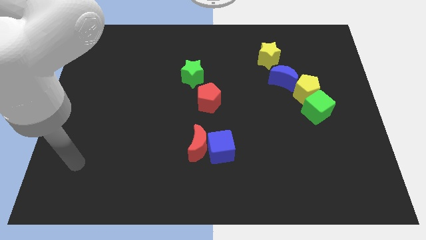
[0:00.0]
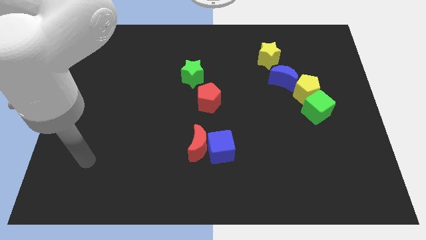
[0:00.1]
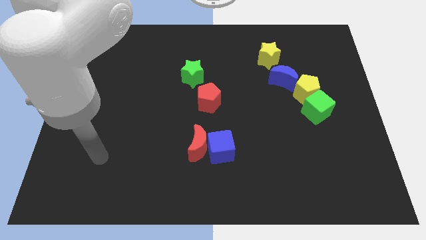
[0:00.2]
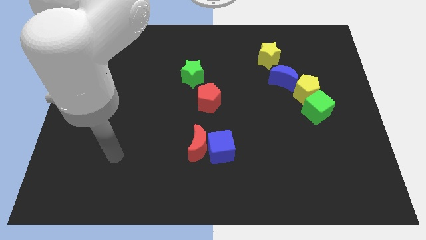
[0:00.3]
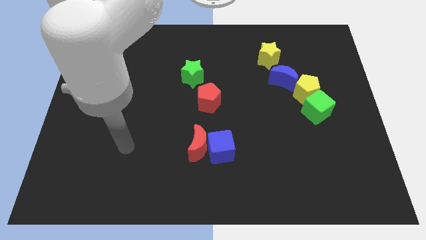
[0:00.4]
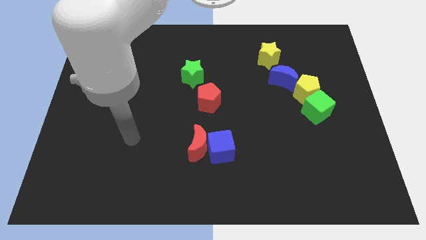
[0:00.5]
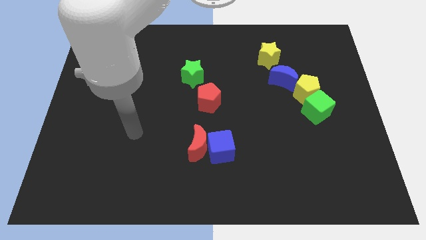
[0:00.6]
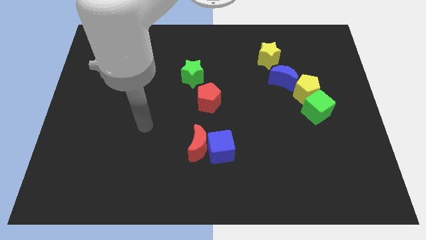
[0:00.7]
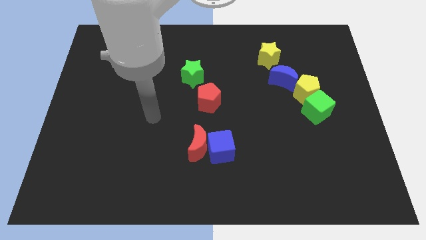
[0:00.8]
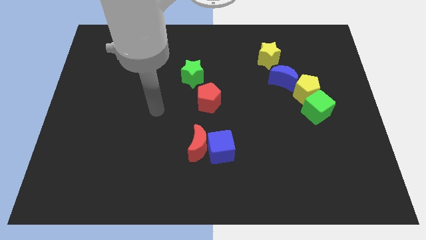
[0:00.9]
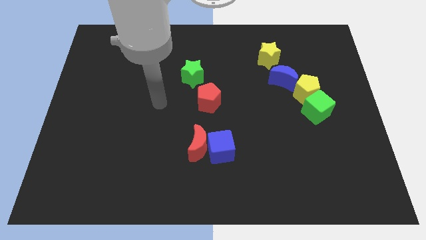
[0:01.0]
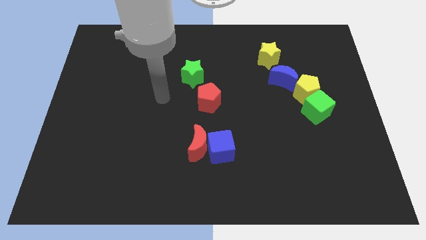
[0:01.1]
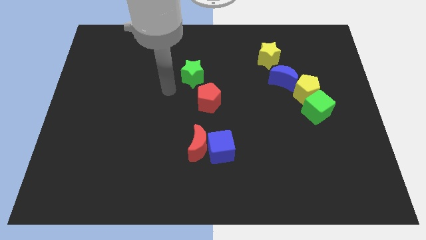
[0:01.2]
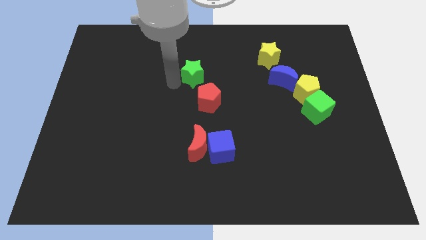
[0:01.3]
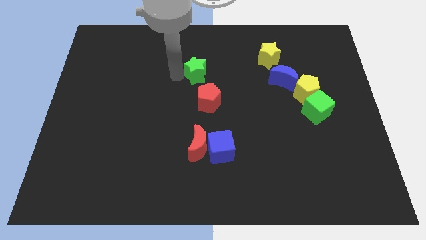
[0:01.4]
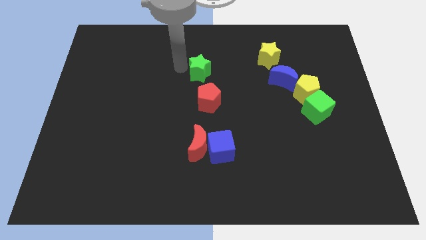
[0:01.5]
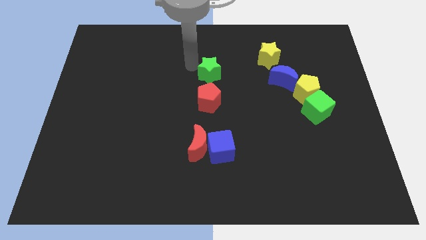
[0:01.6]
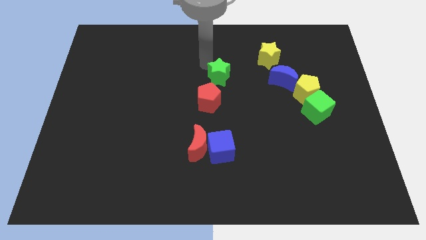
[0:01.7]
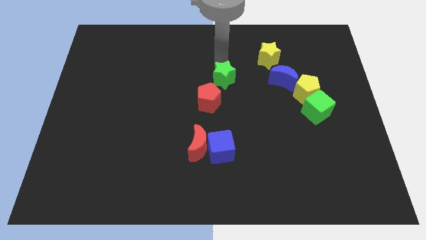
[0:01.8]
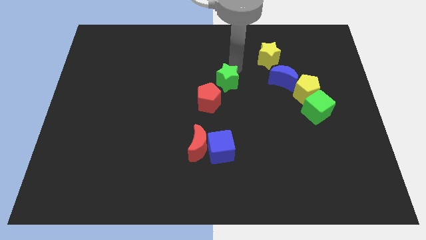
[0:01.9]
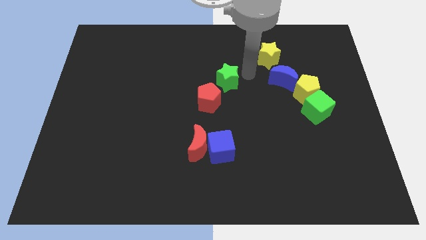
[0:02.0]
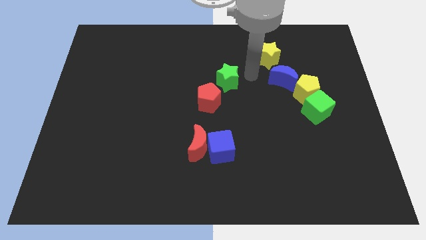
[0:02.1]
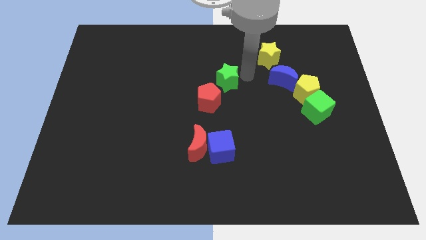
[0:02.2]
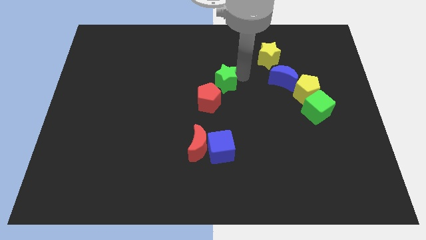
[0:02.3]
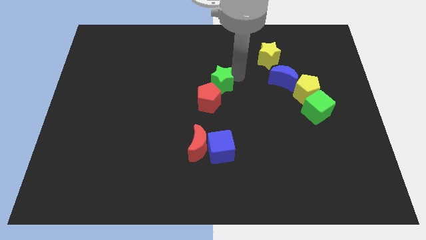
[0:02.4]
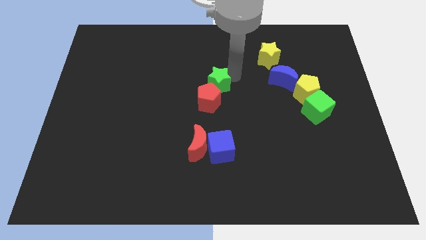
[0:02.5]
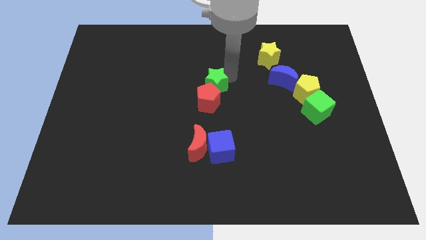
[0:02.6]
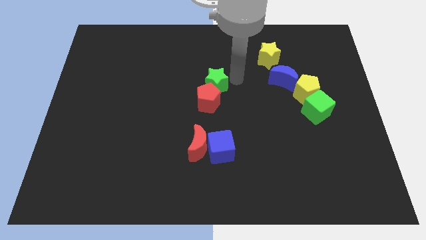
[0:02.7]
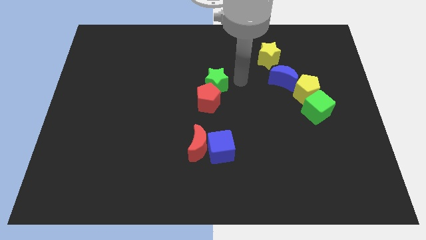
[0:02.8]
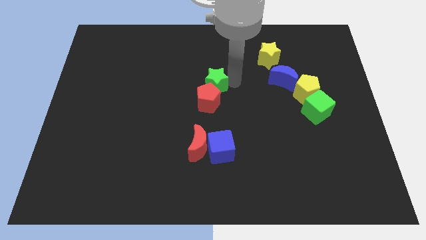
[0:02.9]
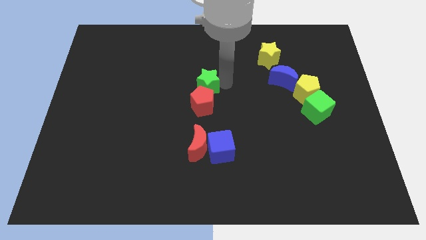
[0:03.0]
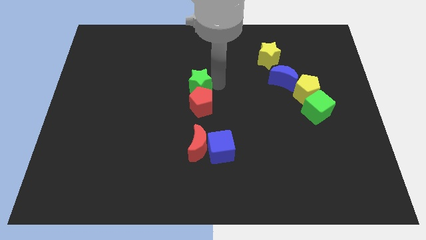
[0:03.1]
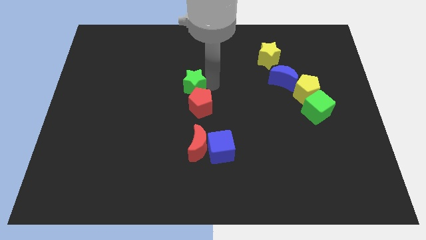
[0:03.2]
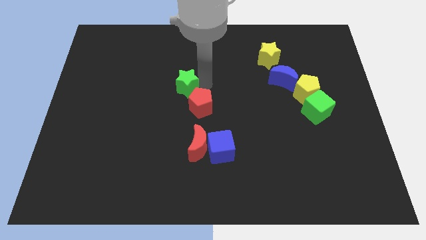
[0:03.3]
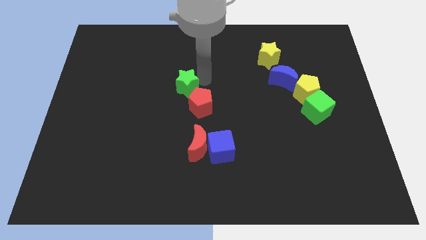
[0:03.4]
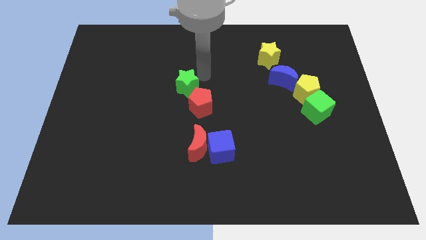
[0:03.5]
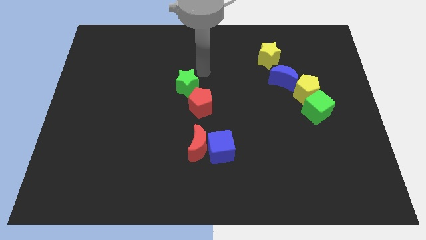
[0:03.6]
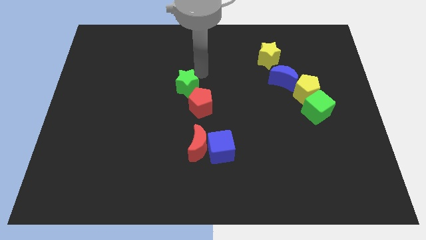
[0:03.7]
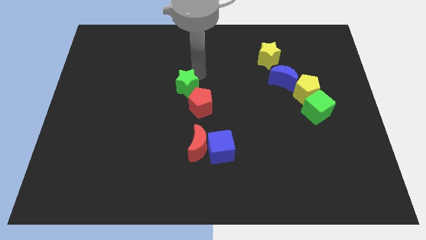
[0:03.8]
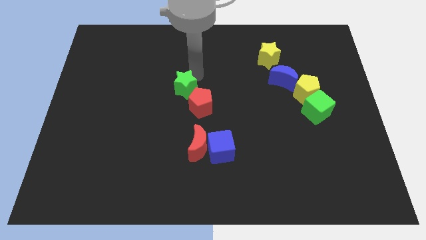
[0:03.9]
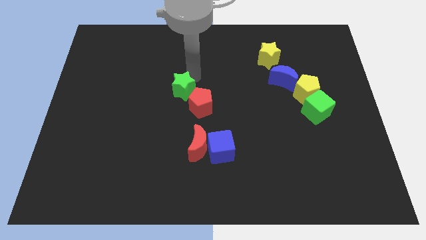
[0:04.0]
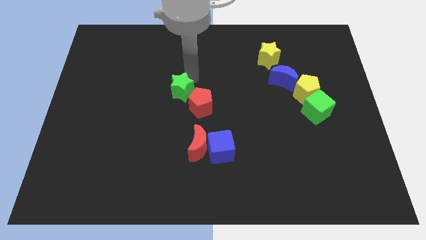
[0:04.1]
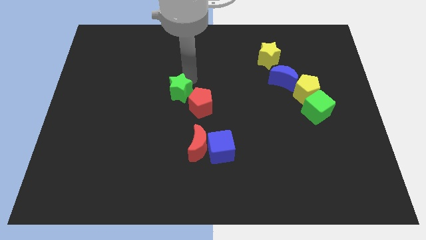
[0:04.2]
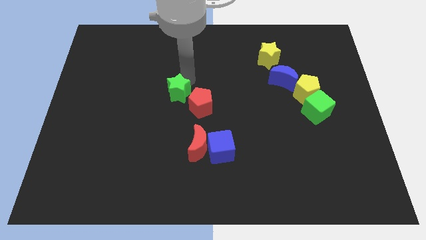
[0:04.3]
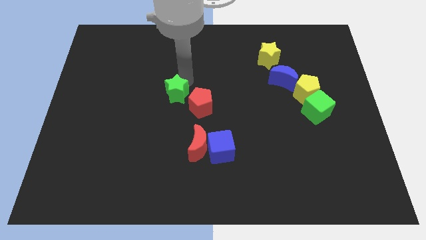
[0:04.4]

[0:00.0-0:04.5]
slightly push the green star down and then to the left

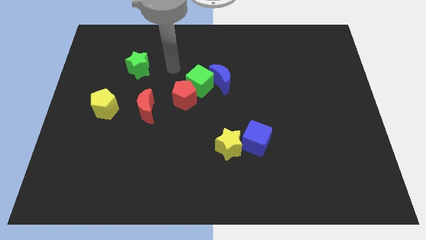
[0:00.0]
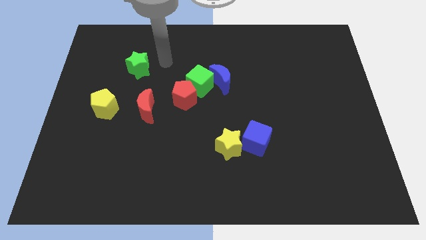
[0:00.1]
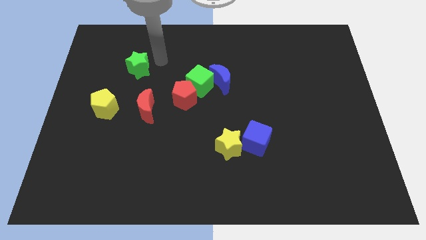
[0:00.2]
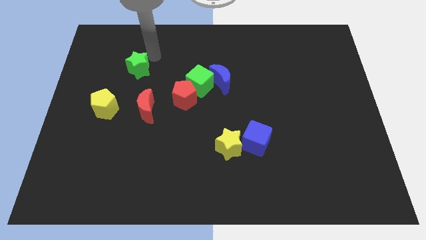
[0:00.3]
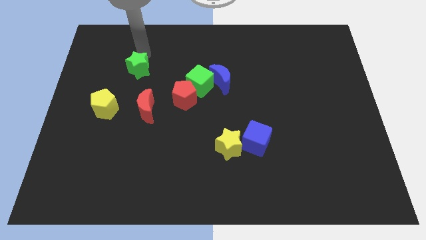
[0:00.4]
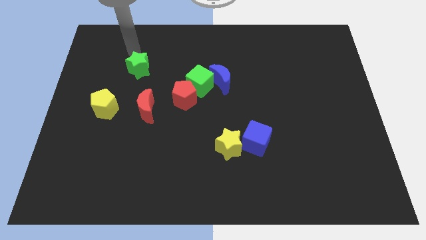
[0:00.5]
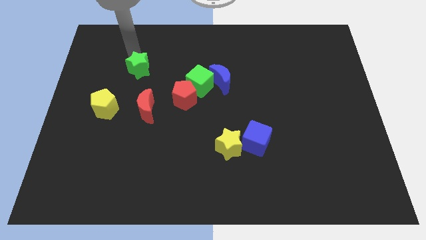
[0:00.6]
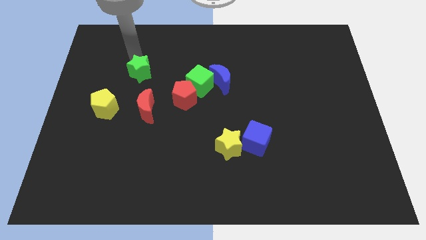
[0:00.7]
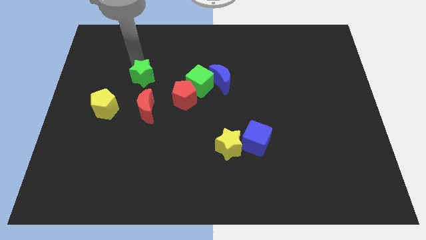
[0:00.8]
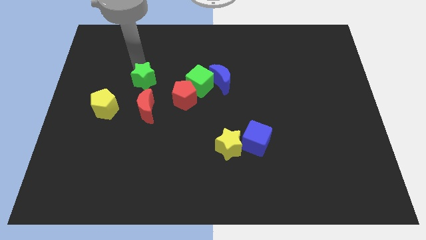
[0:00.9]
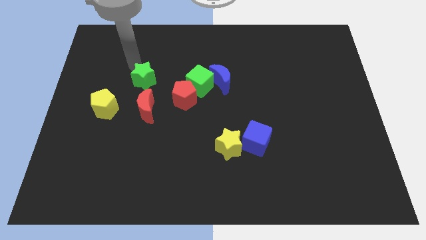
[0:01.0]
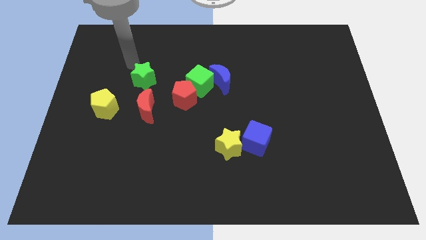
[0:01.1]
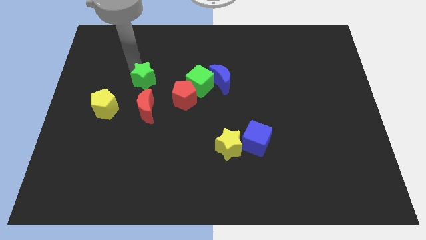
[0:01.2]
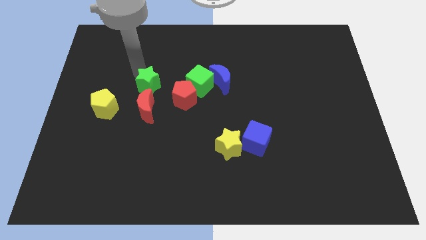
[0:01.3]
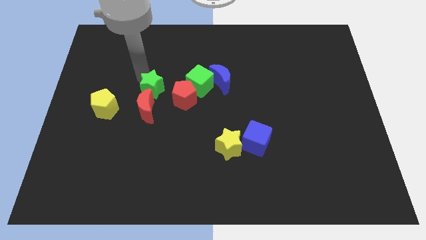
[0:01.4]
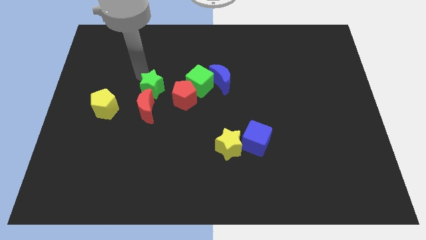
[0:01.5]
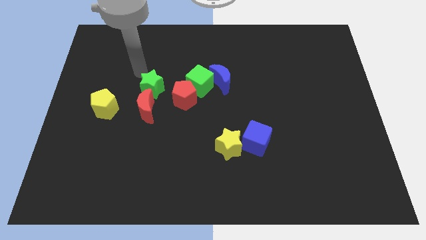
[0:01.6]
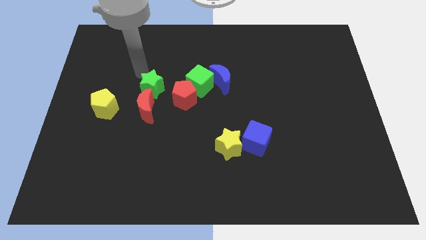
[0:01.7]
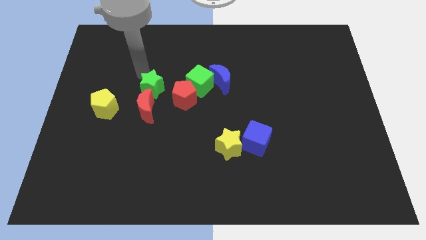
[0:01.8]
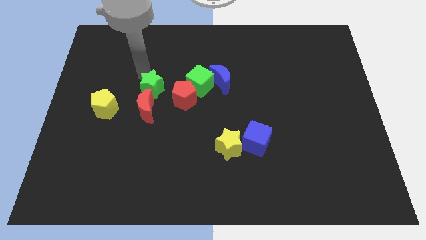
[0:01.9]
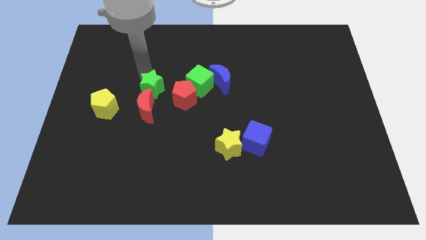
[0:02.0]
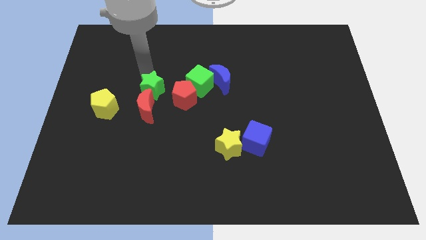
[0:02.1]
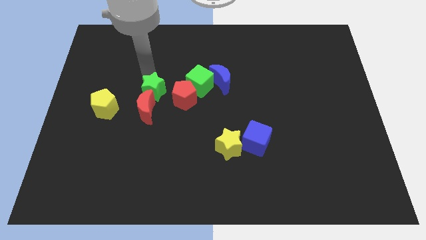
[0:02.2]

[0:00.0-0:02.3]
slide the green star down a little bit

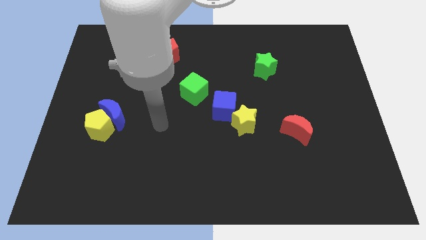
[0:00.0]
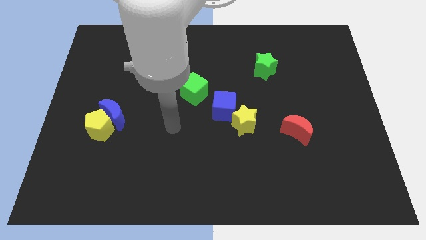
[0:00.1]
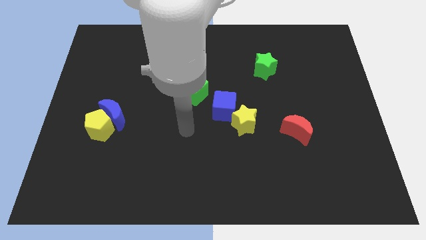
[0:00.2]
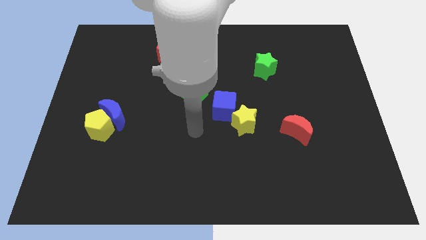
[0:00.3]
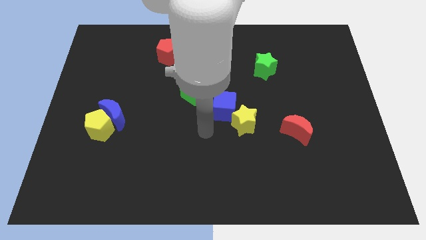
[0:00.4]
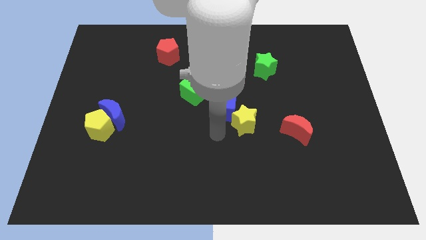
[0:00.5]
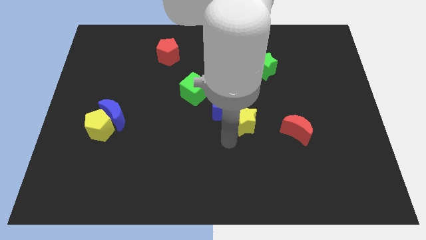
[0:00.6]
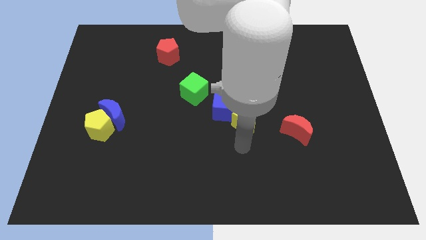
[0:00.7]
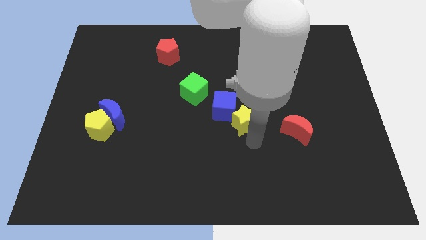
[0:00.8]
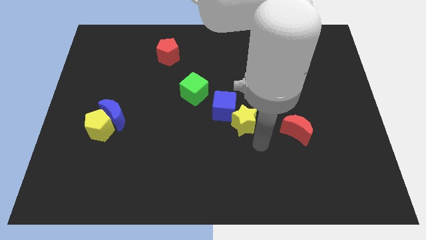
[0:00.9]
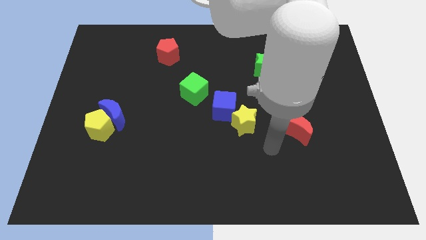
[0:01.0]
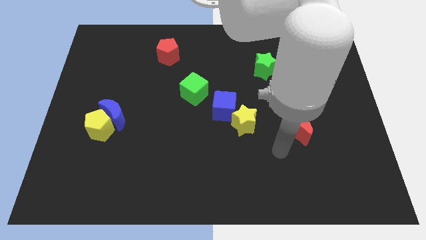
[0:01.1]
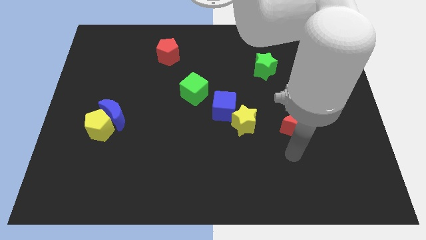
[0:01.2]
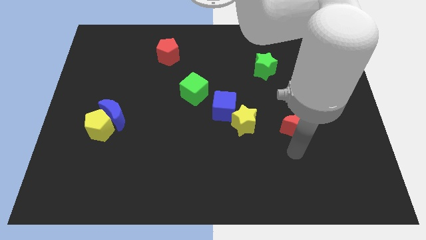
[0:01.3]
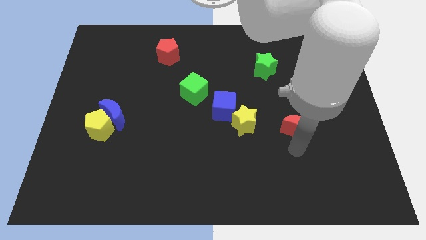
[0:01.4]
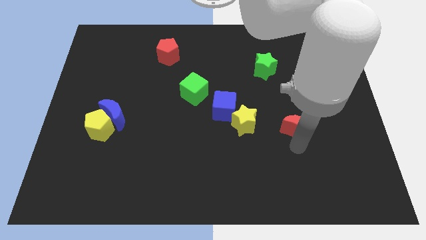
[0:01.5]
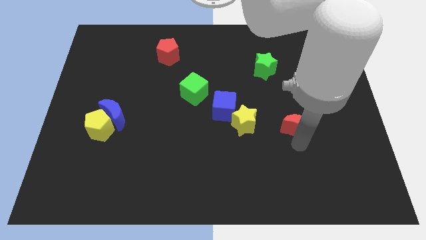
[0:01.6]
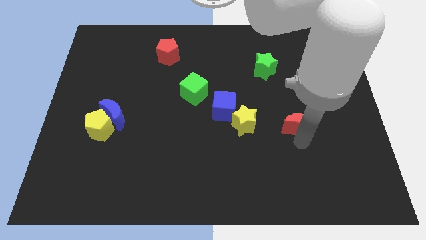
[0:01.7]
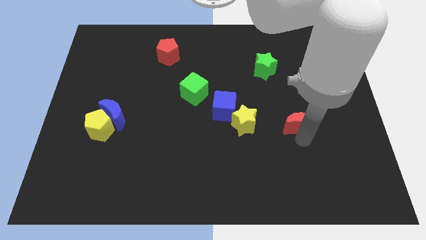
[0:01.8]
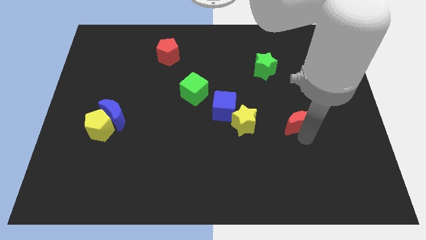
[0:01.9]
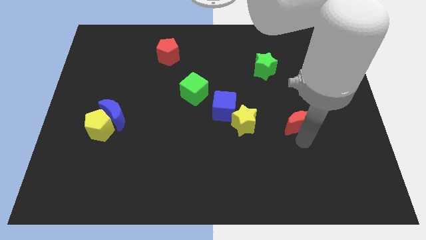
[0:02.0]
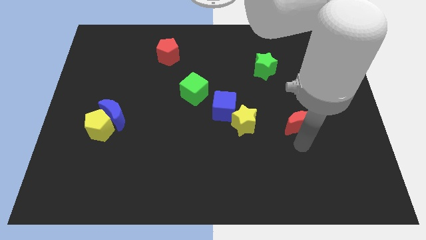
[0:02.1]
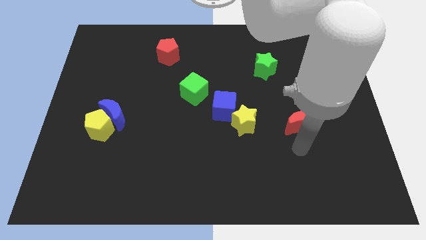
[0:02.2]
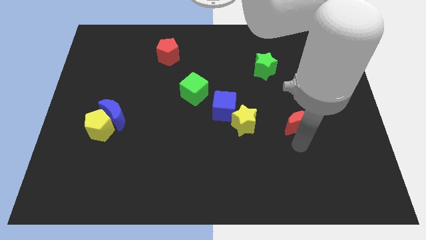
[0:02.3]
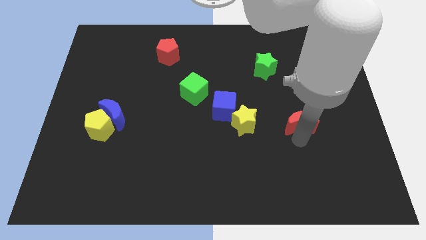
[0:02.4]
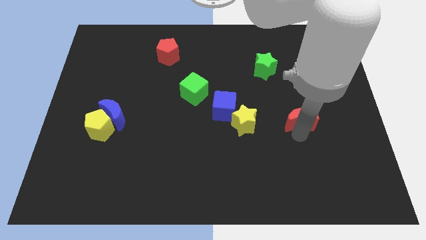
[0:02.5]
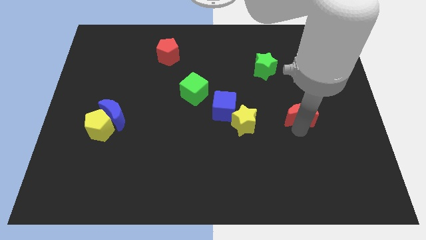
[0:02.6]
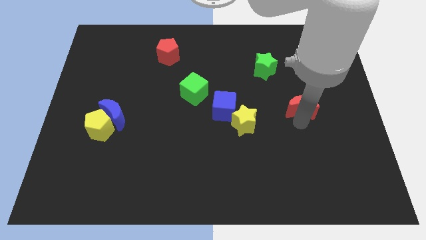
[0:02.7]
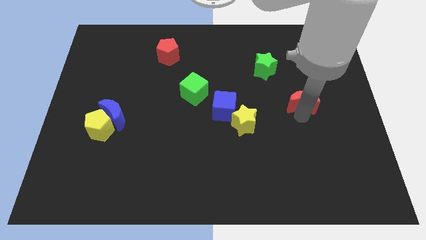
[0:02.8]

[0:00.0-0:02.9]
move the red moon up a little
